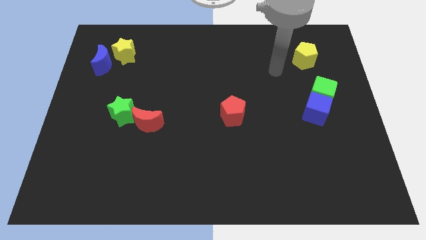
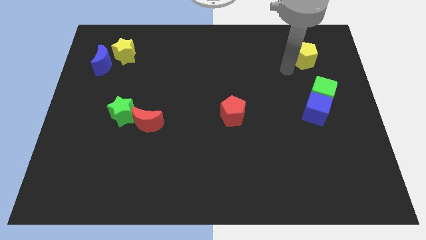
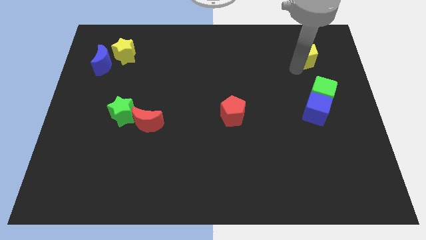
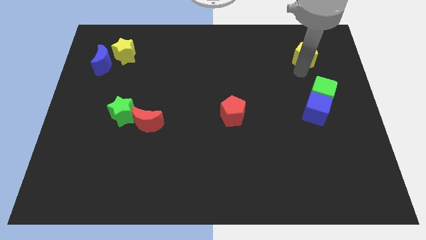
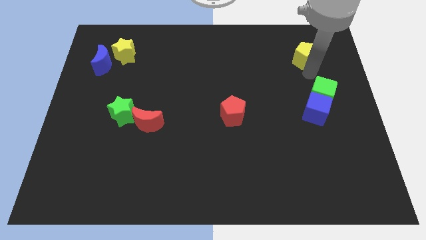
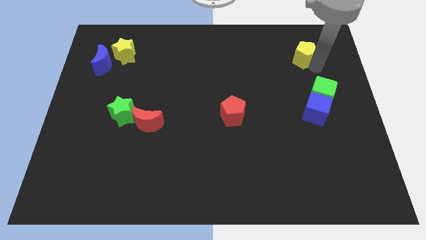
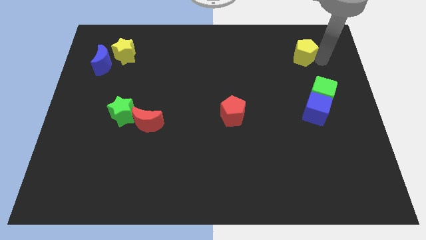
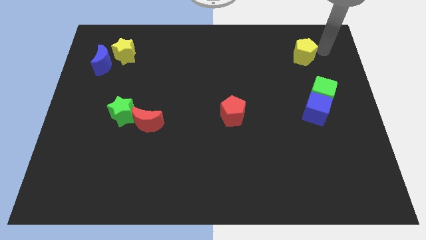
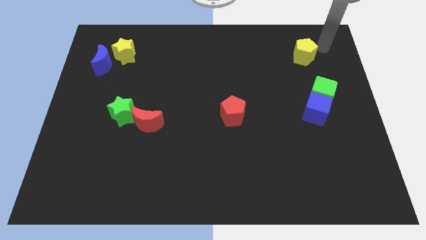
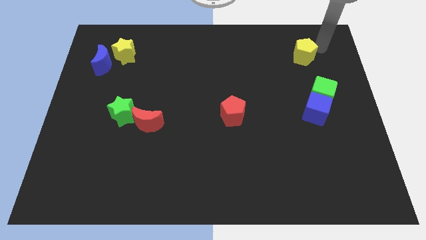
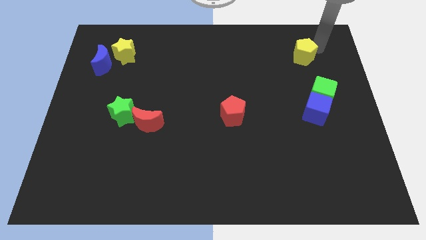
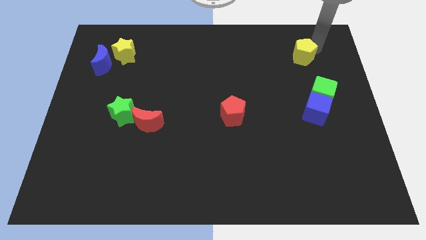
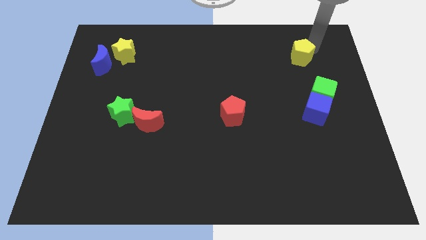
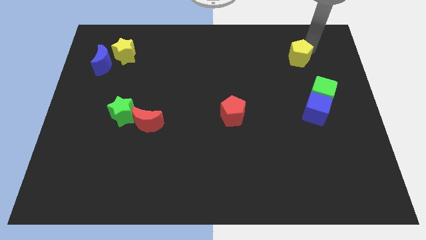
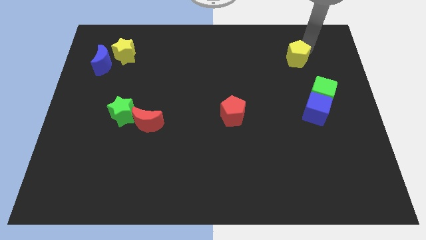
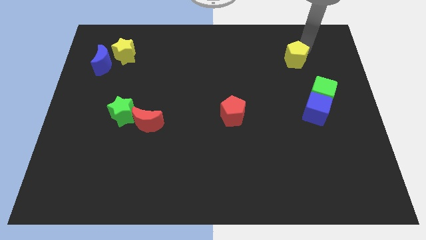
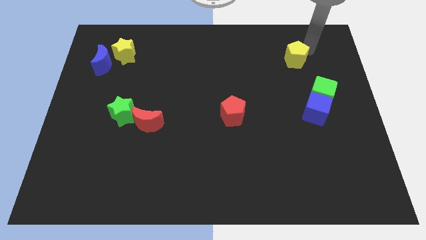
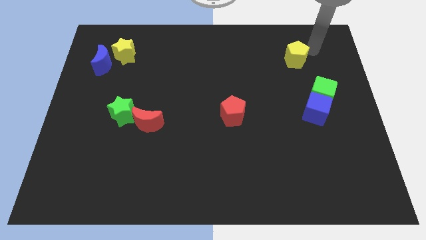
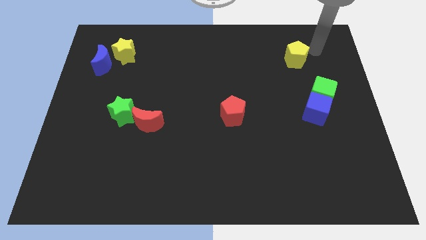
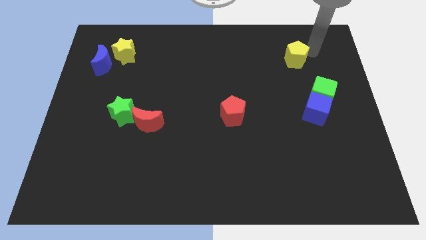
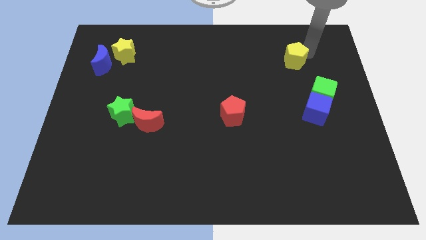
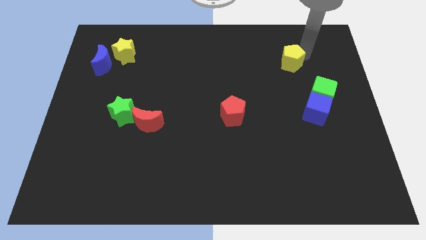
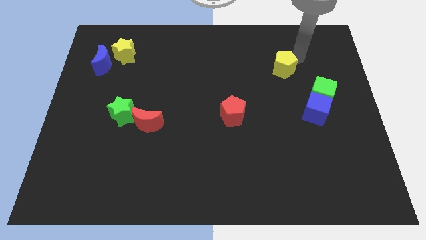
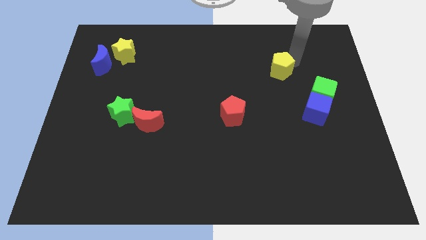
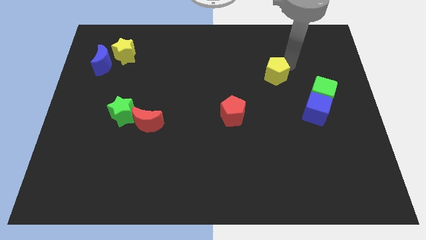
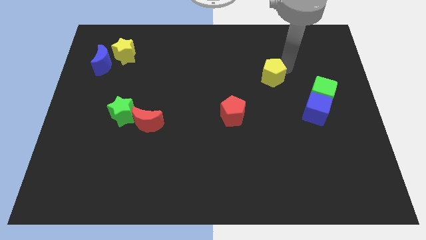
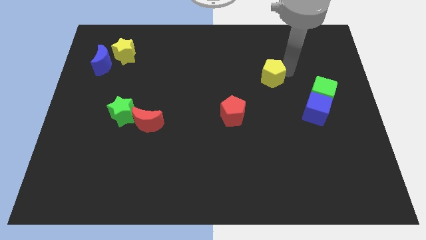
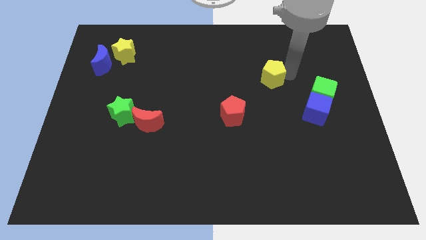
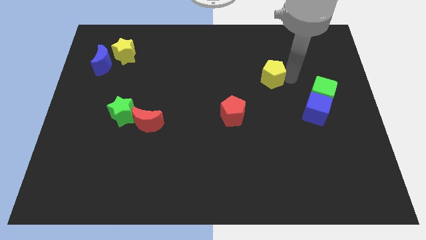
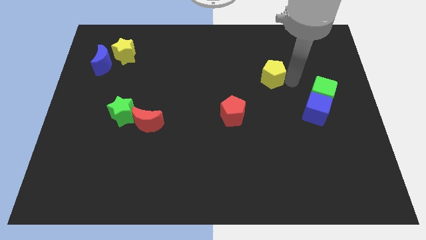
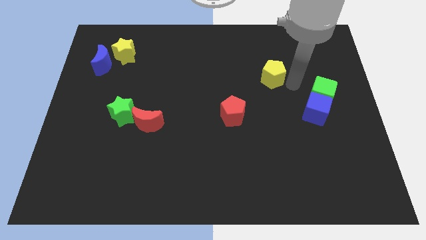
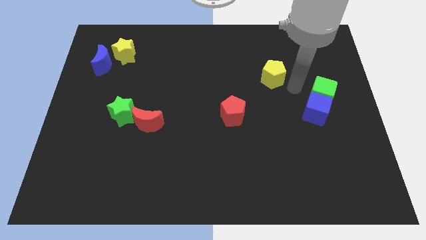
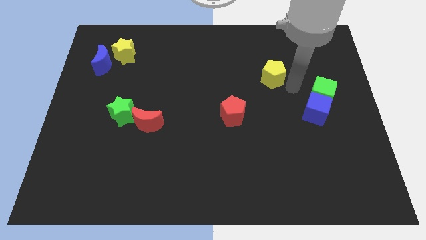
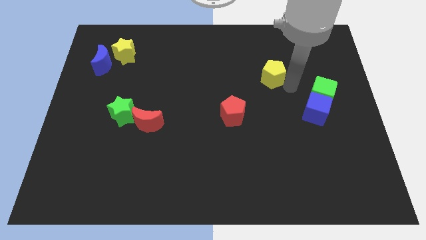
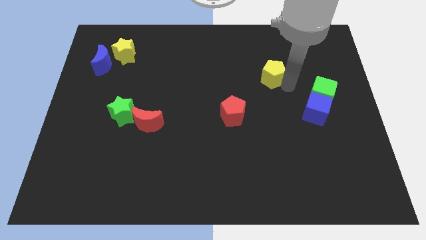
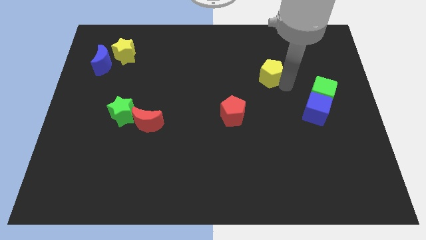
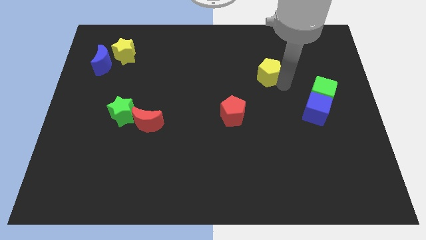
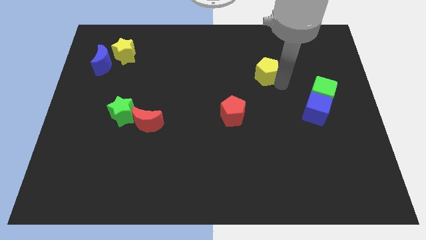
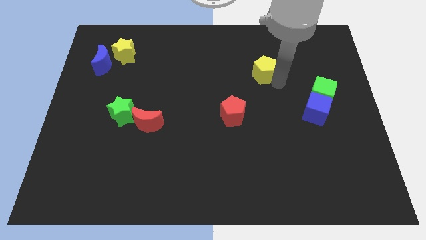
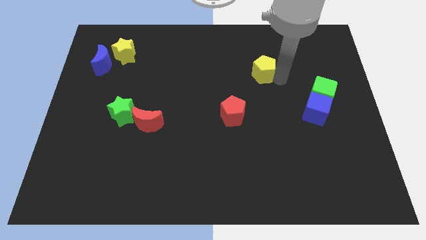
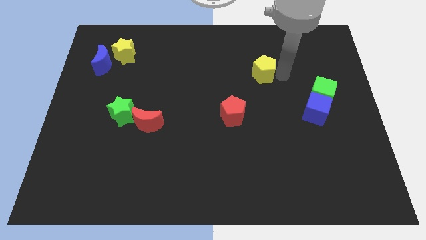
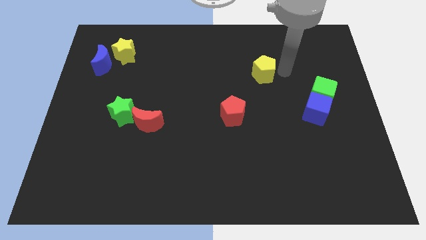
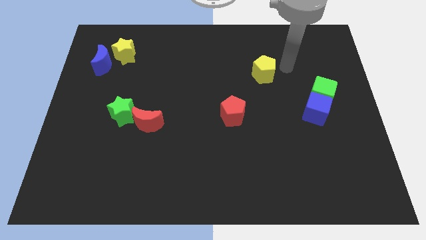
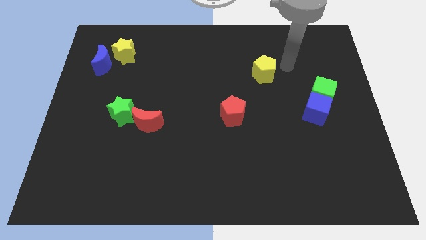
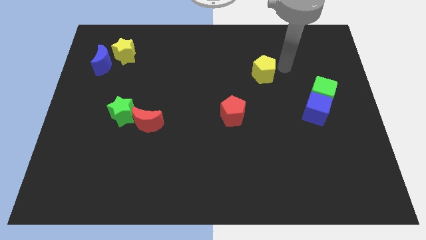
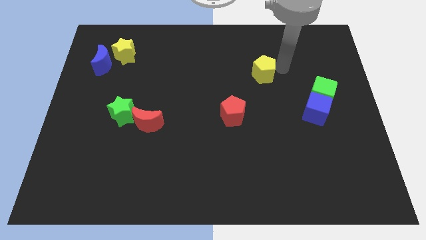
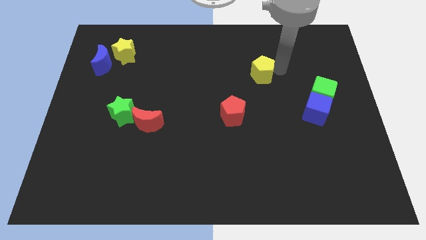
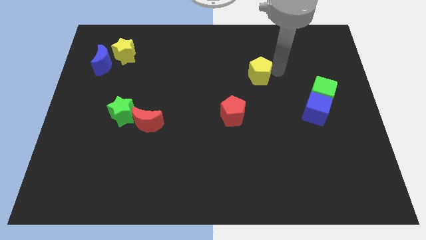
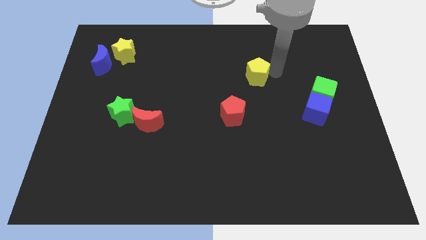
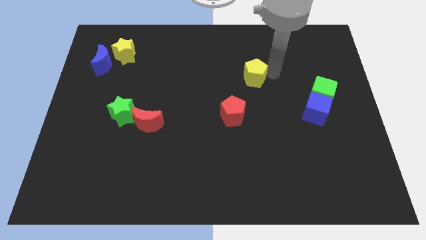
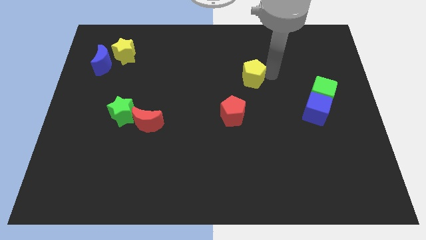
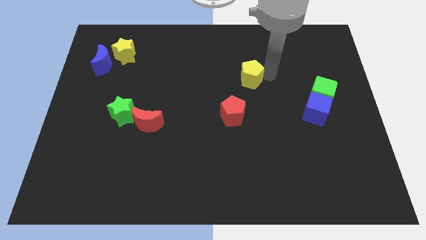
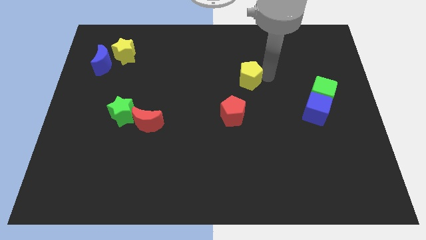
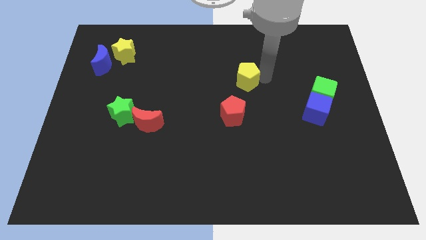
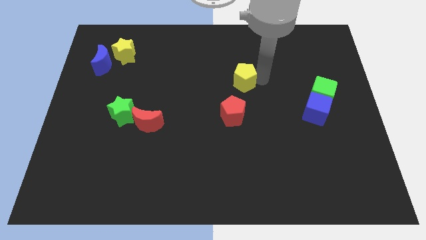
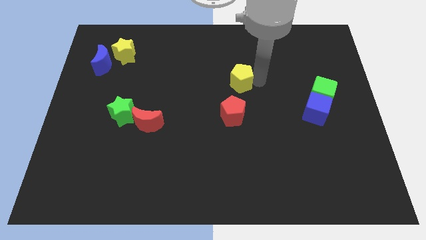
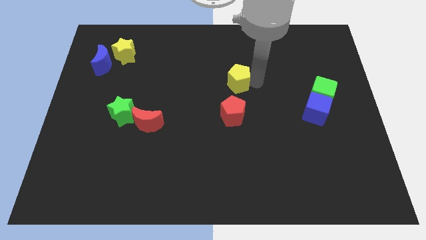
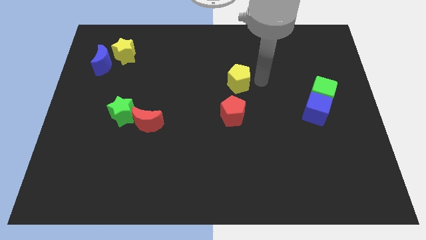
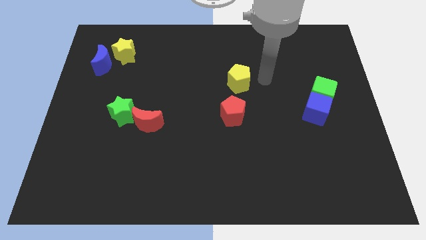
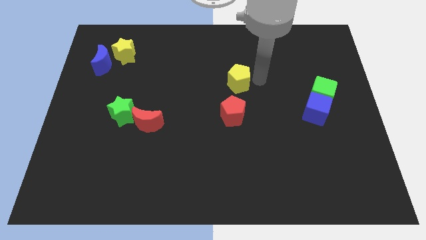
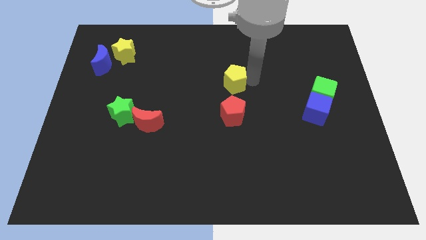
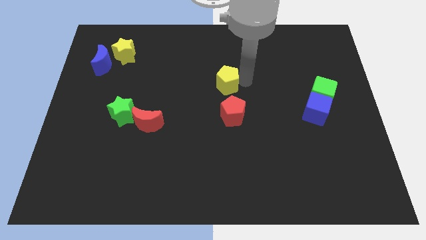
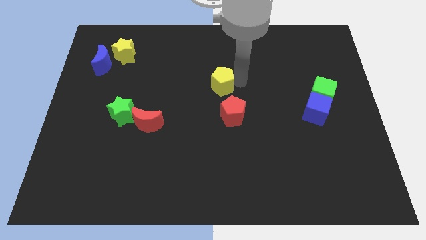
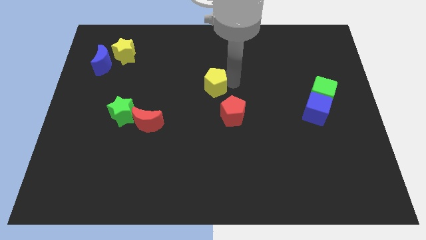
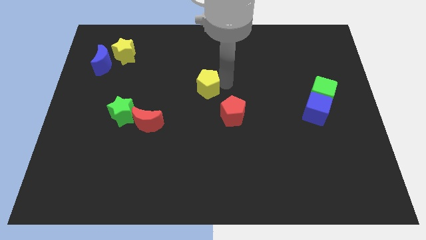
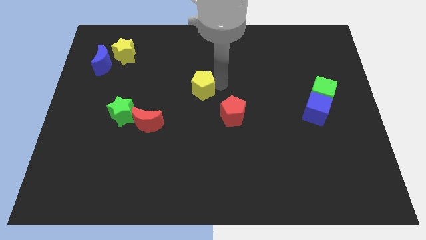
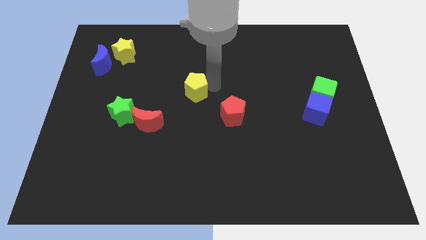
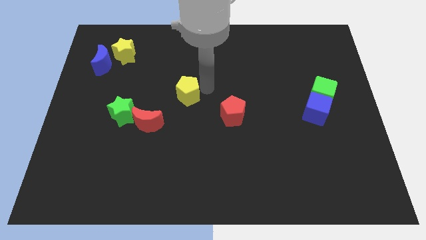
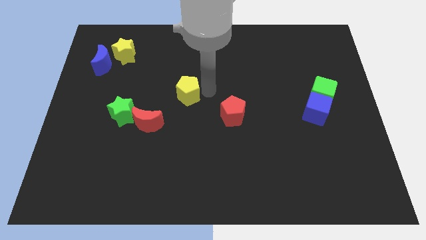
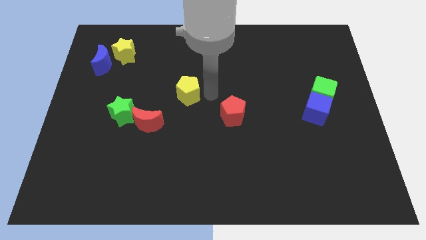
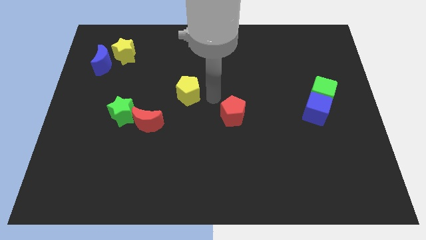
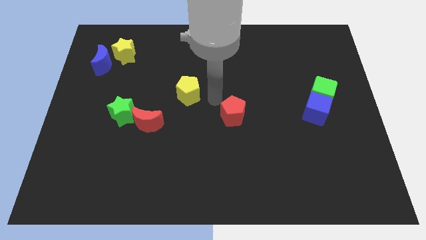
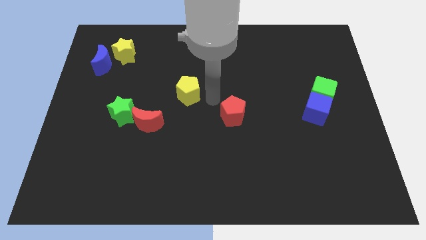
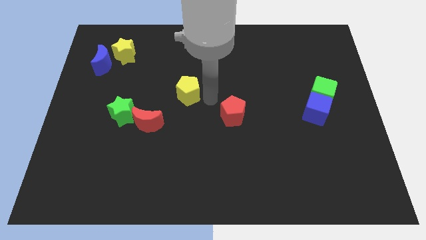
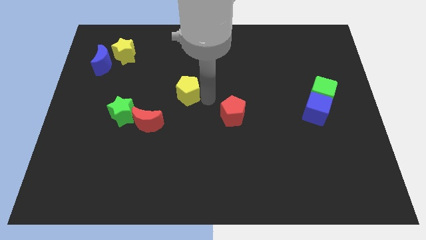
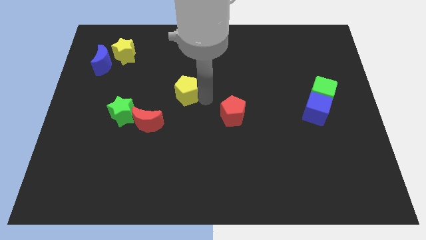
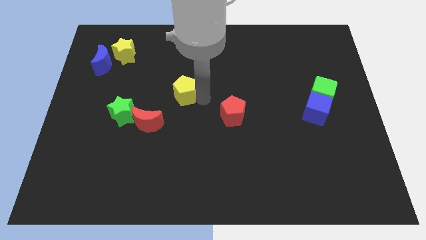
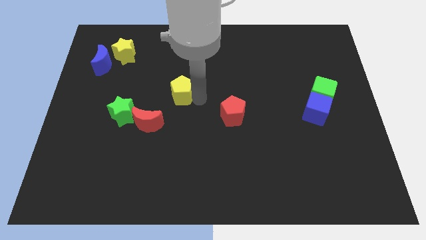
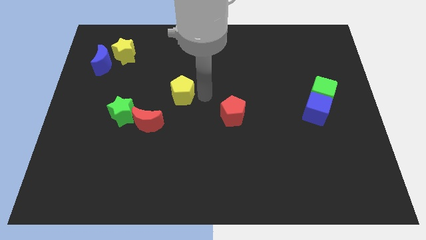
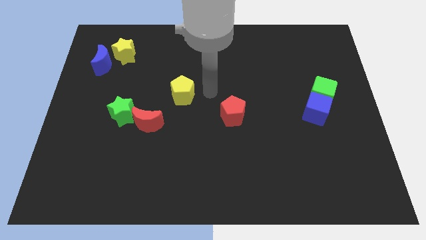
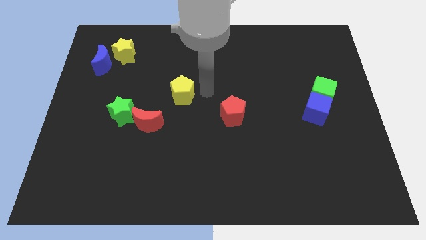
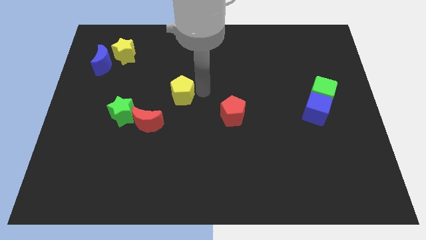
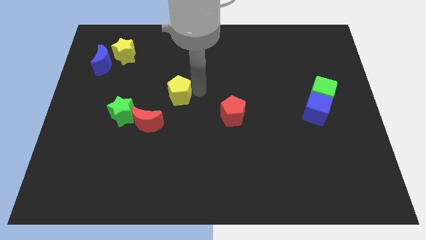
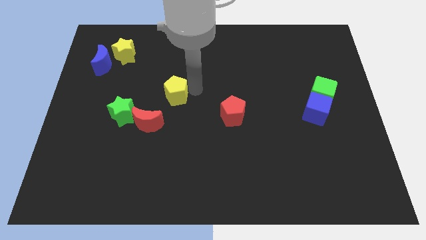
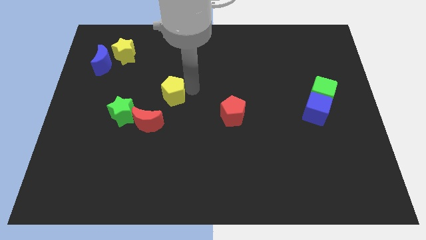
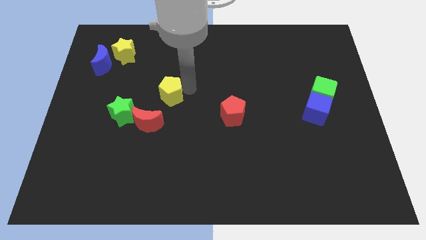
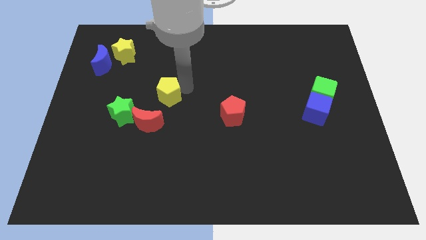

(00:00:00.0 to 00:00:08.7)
put the yellow pentagon to the top right side of the green star
